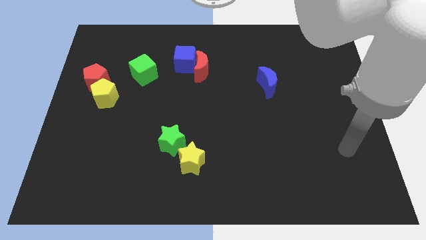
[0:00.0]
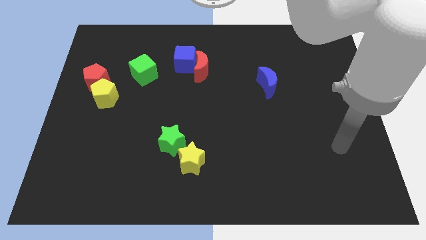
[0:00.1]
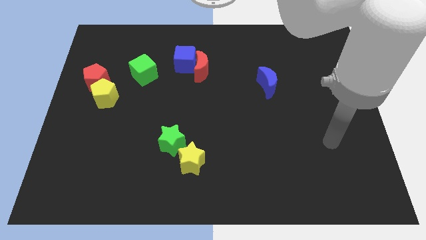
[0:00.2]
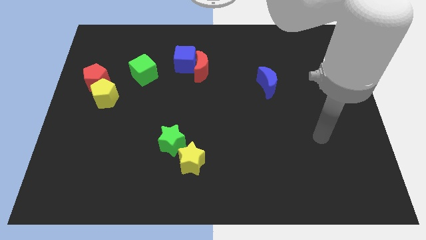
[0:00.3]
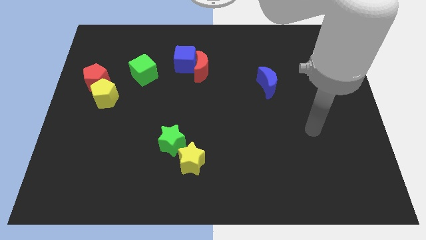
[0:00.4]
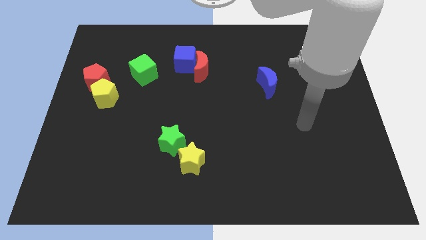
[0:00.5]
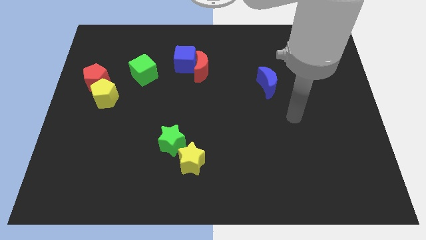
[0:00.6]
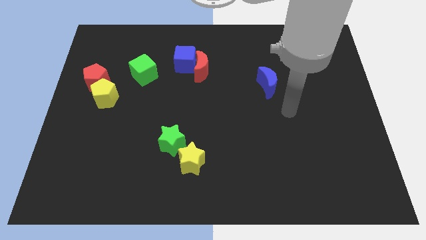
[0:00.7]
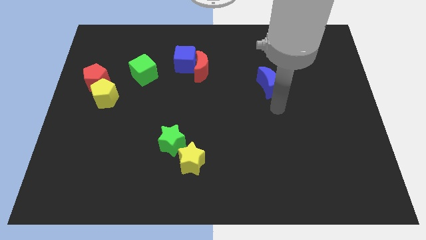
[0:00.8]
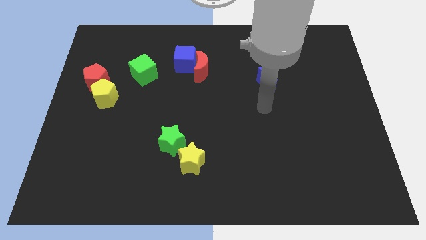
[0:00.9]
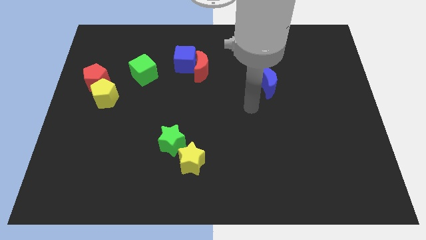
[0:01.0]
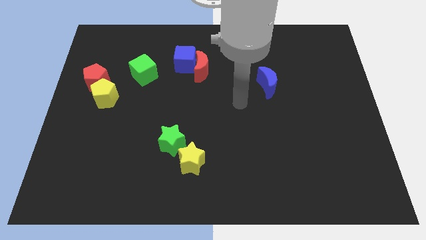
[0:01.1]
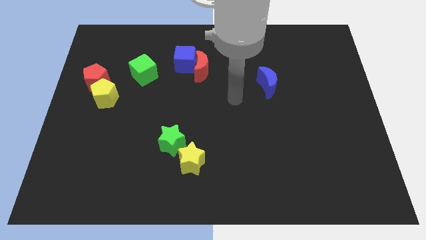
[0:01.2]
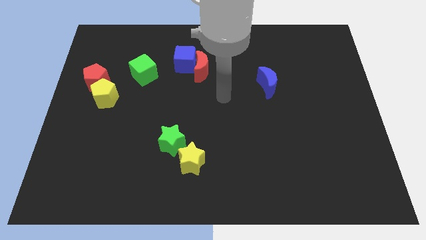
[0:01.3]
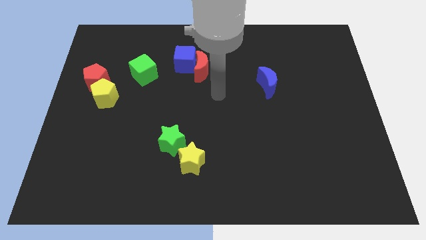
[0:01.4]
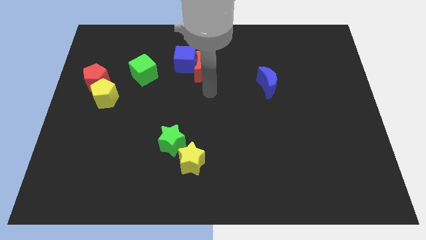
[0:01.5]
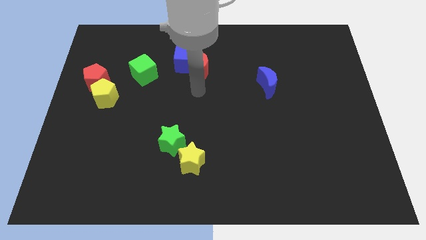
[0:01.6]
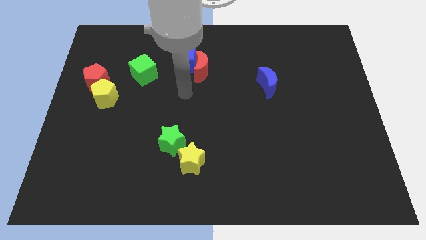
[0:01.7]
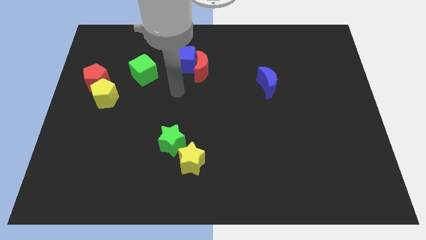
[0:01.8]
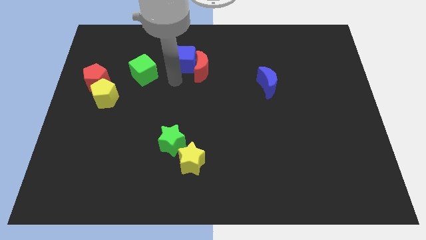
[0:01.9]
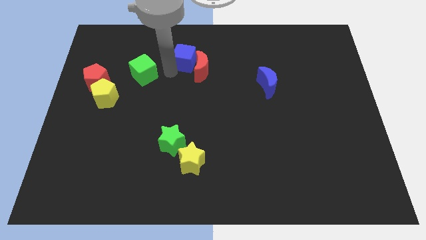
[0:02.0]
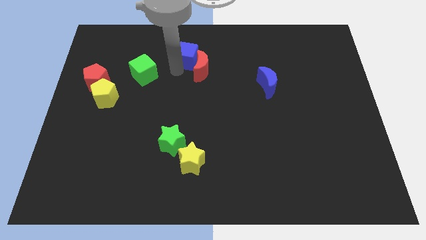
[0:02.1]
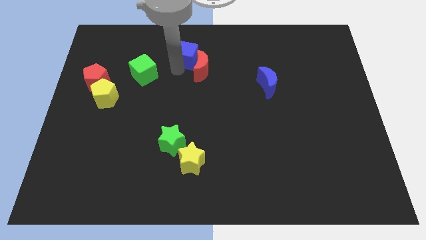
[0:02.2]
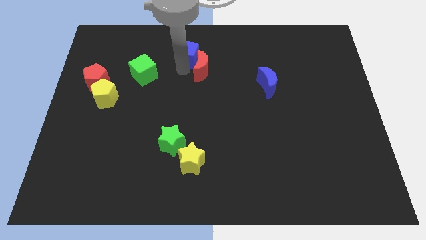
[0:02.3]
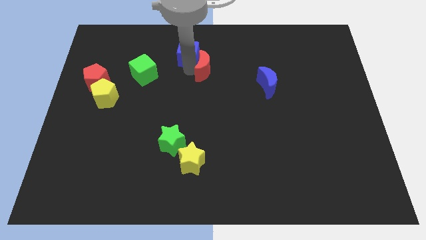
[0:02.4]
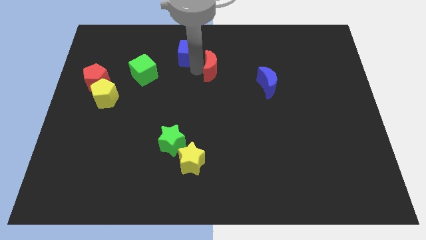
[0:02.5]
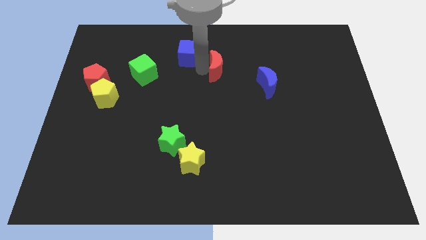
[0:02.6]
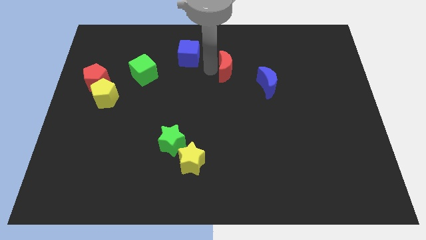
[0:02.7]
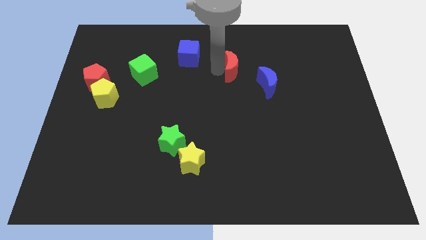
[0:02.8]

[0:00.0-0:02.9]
push the red moon right slightly

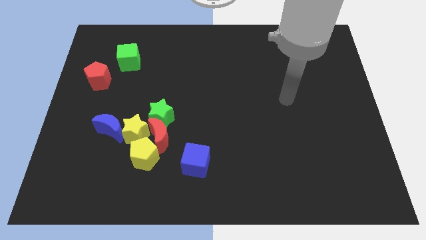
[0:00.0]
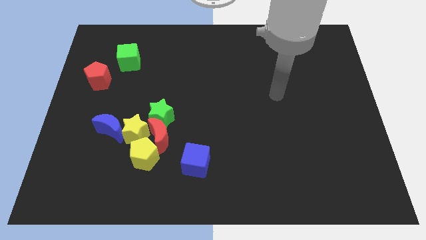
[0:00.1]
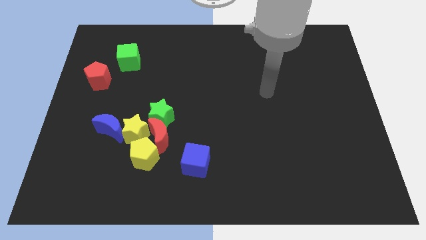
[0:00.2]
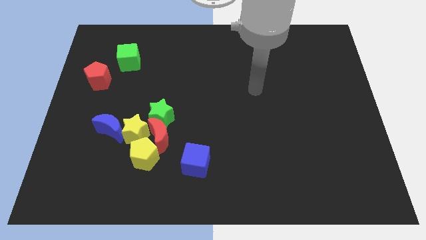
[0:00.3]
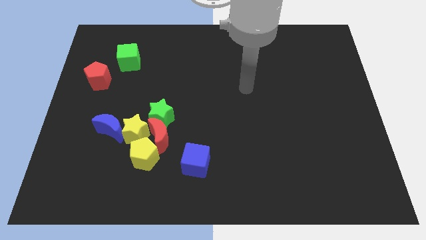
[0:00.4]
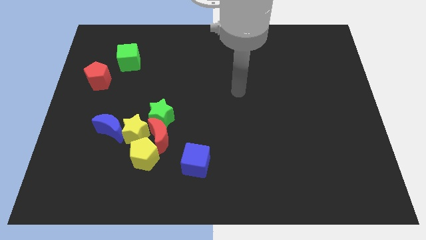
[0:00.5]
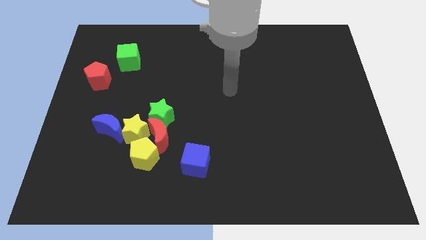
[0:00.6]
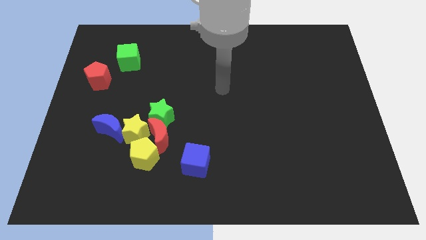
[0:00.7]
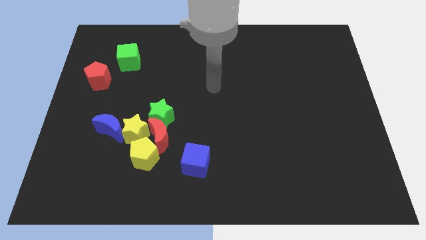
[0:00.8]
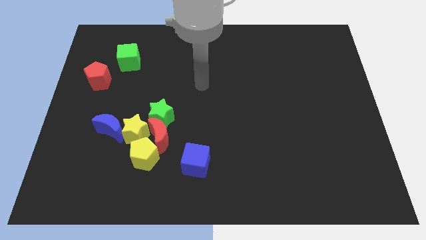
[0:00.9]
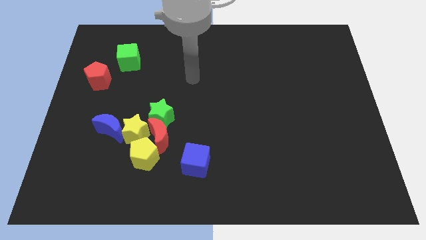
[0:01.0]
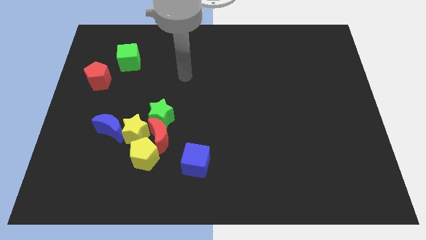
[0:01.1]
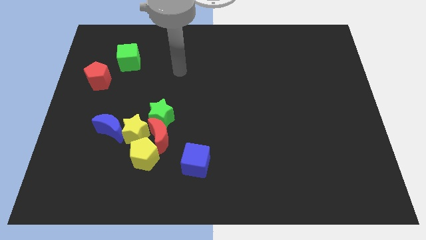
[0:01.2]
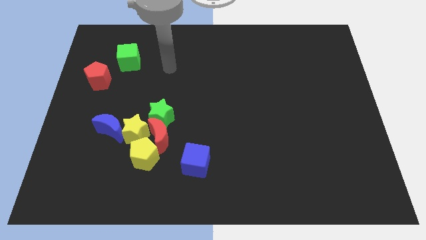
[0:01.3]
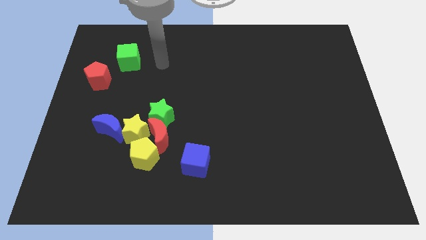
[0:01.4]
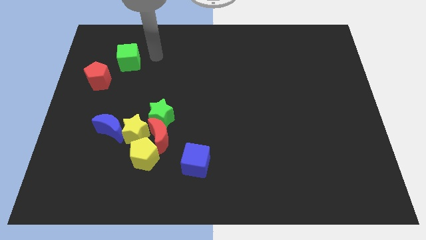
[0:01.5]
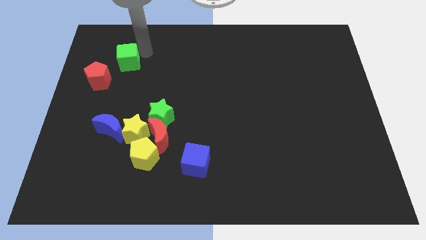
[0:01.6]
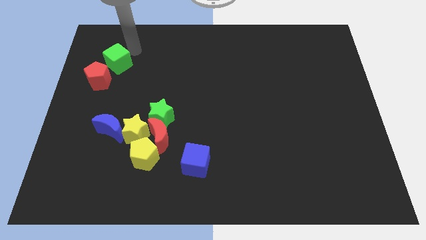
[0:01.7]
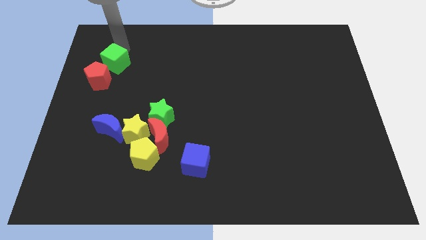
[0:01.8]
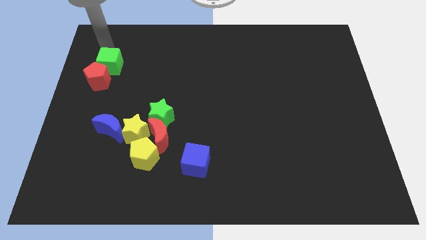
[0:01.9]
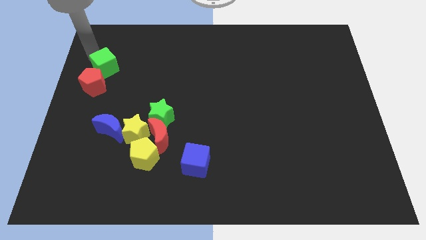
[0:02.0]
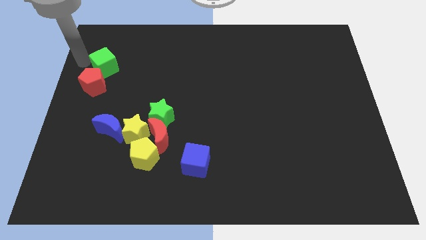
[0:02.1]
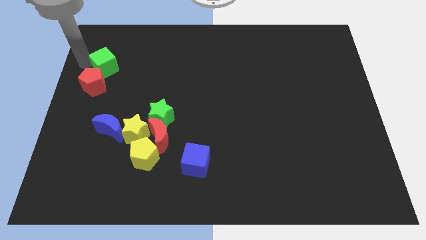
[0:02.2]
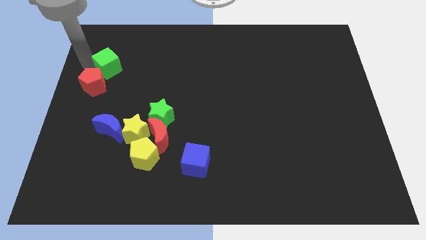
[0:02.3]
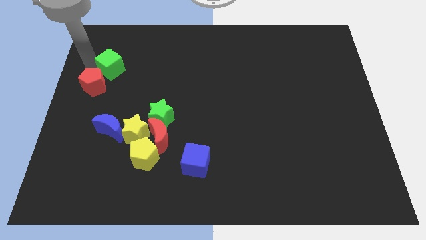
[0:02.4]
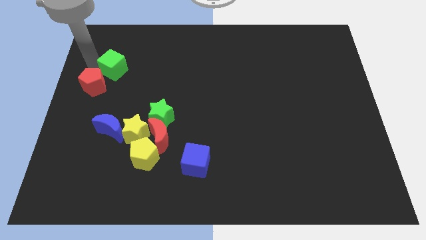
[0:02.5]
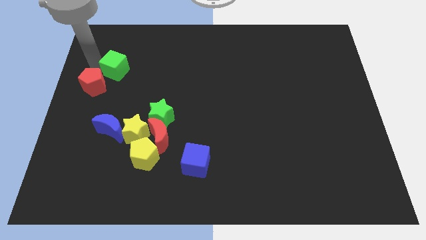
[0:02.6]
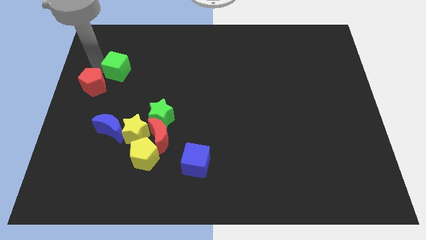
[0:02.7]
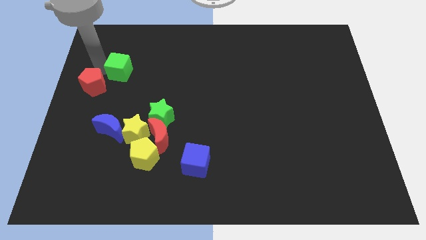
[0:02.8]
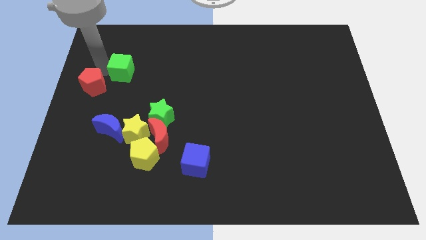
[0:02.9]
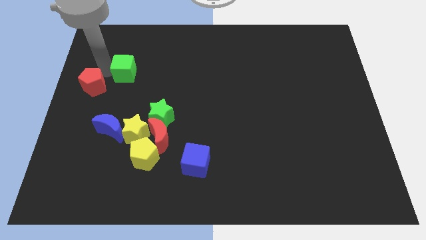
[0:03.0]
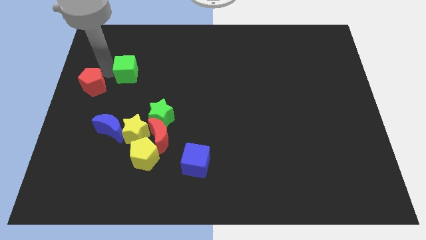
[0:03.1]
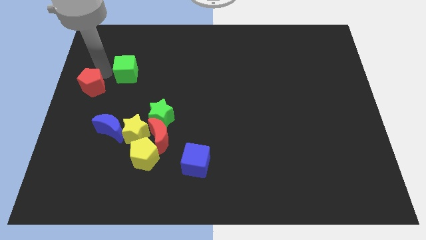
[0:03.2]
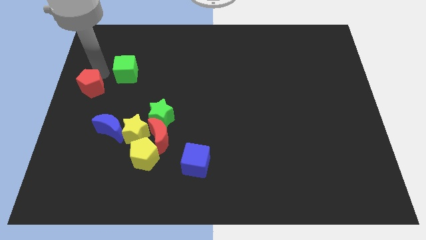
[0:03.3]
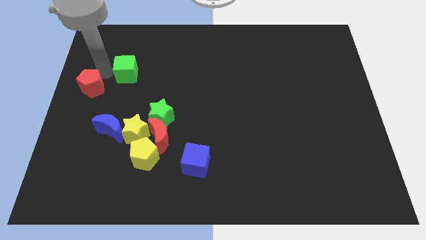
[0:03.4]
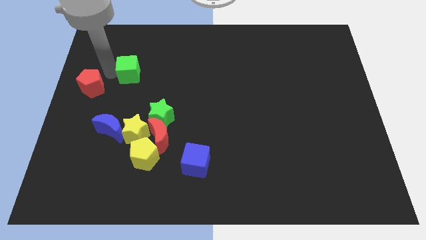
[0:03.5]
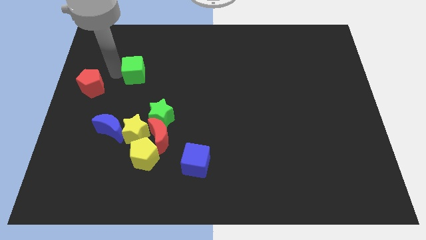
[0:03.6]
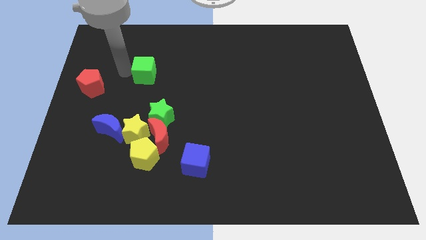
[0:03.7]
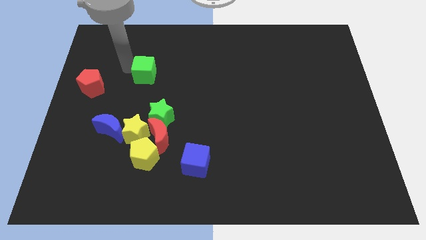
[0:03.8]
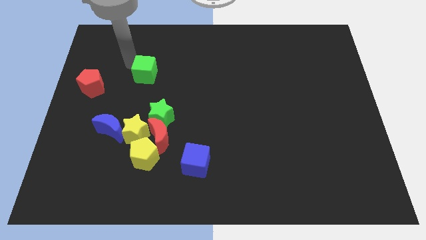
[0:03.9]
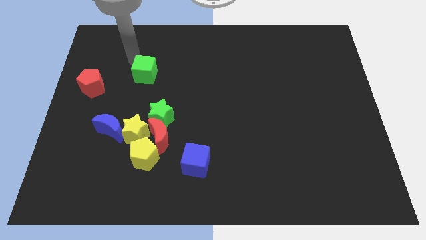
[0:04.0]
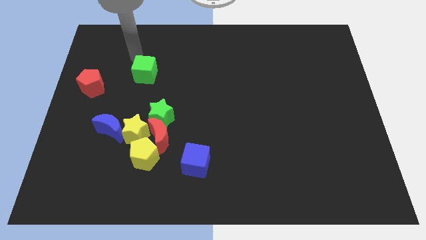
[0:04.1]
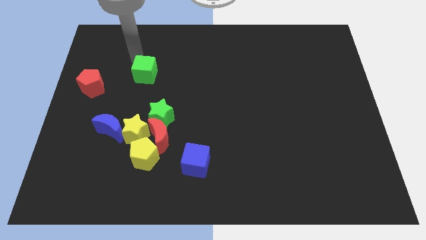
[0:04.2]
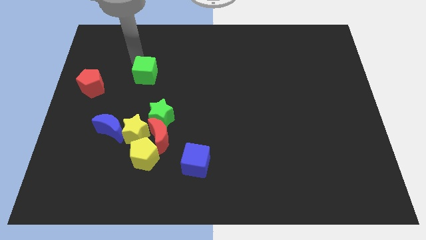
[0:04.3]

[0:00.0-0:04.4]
slightly slide the green cube diagonally down and right

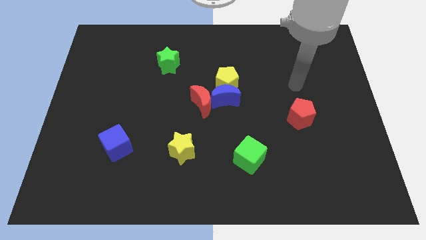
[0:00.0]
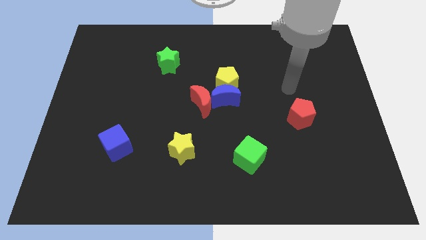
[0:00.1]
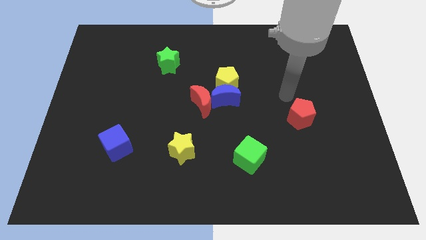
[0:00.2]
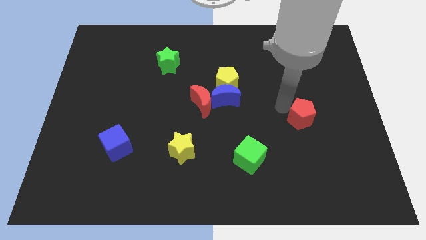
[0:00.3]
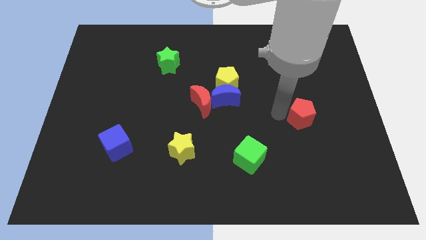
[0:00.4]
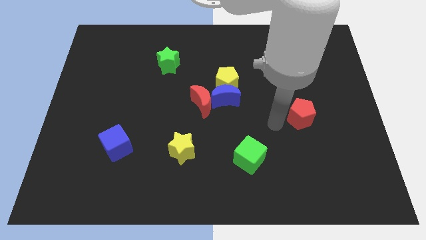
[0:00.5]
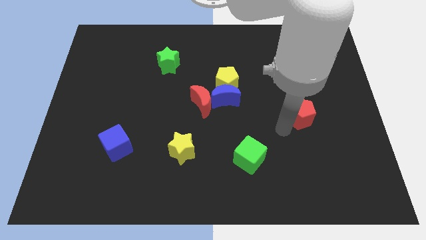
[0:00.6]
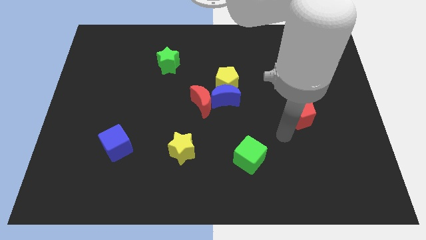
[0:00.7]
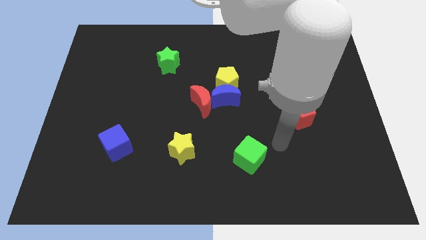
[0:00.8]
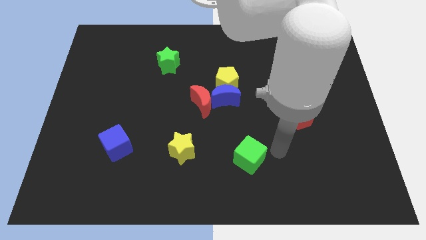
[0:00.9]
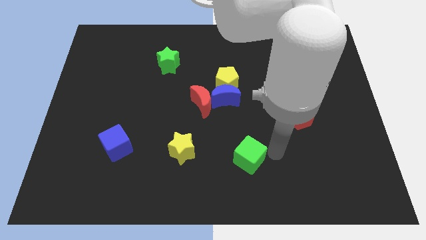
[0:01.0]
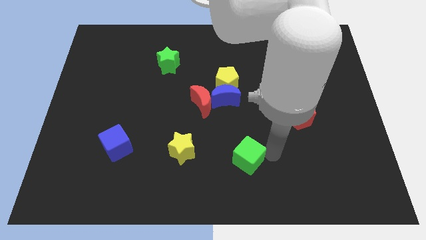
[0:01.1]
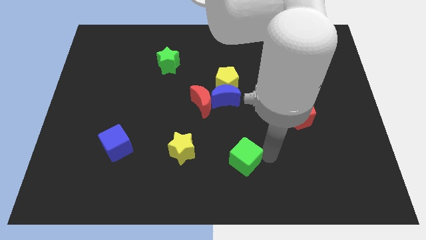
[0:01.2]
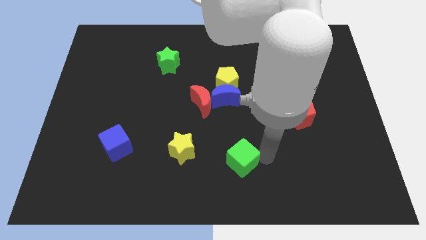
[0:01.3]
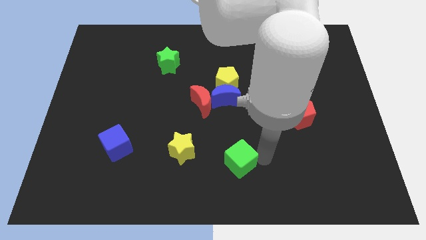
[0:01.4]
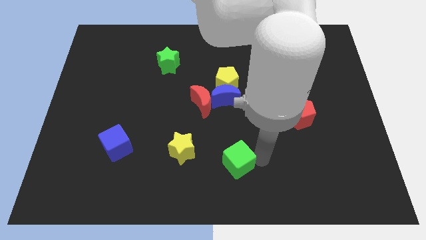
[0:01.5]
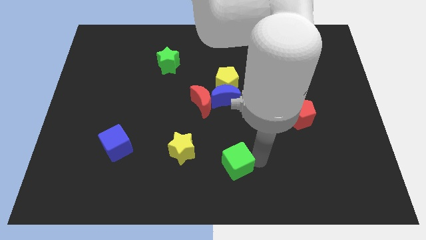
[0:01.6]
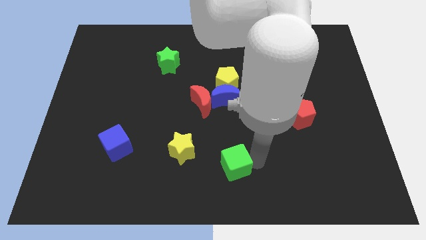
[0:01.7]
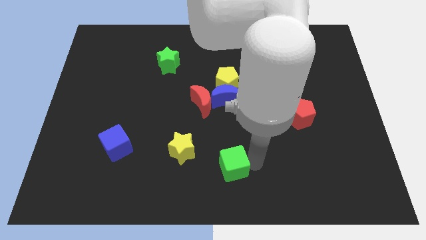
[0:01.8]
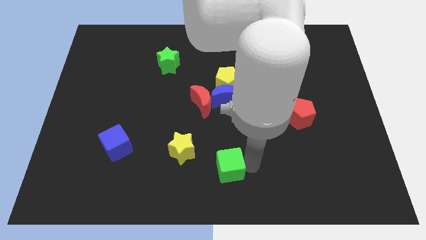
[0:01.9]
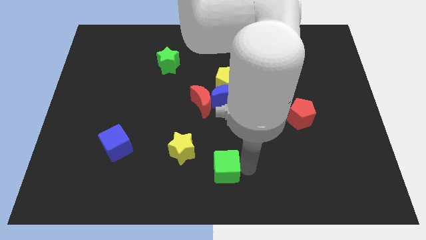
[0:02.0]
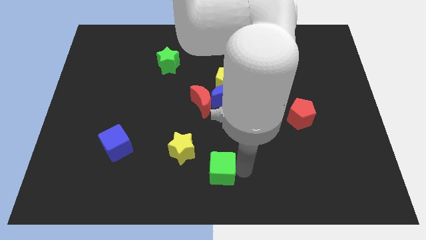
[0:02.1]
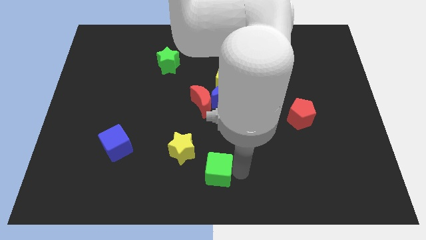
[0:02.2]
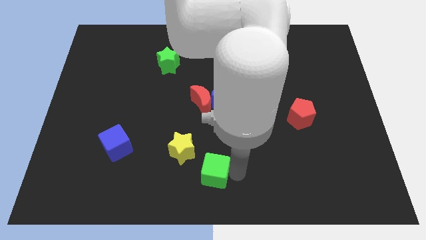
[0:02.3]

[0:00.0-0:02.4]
slightly slide the green cube to the left
